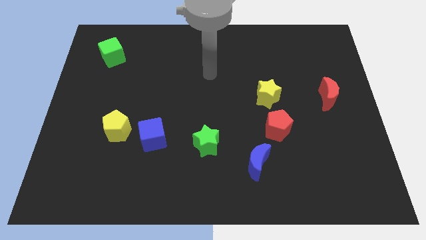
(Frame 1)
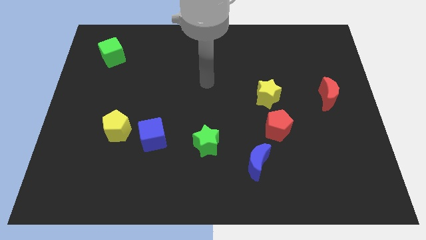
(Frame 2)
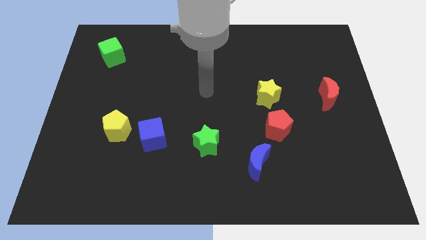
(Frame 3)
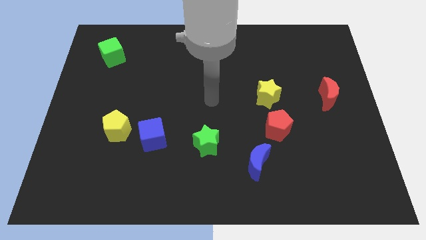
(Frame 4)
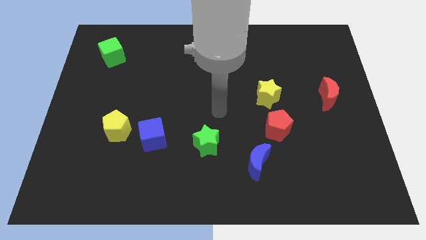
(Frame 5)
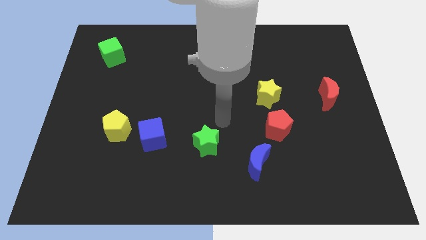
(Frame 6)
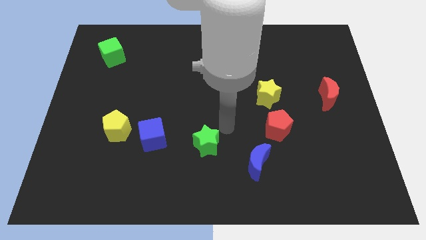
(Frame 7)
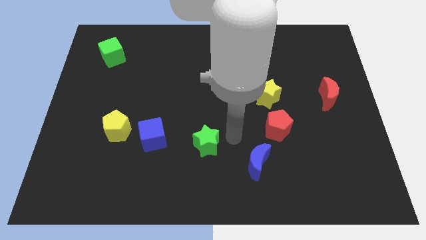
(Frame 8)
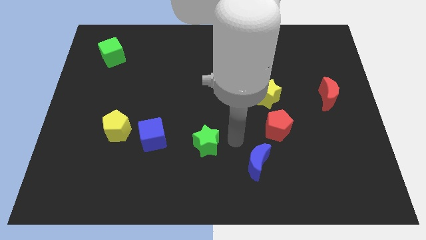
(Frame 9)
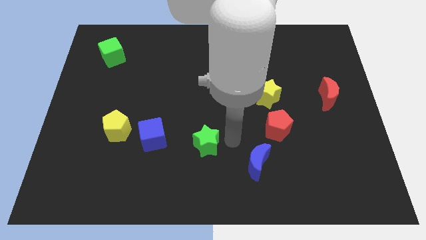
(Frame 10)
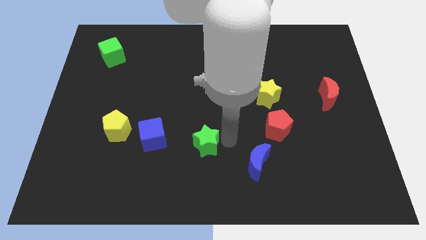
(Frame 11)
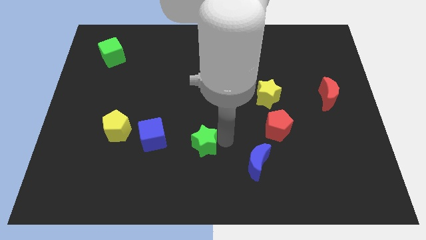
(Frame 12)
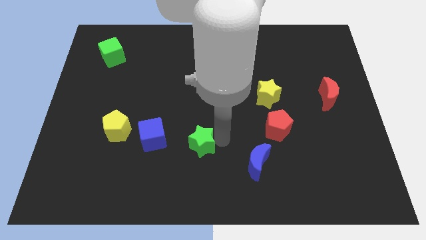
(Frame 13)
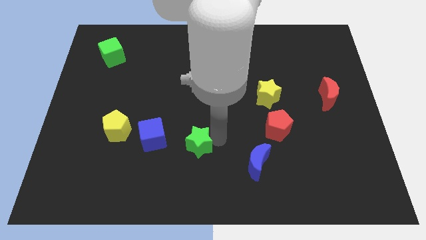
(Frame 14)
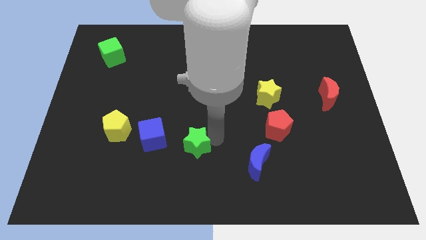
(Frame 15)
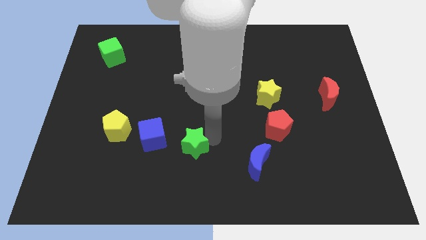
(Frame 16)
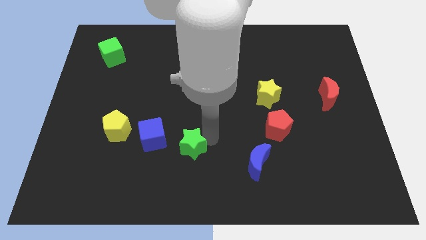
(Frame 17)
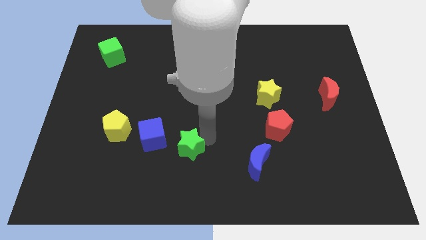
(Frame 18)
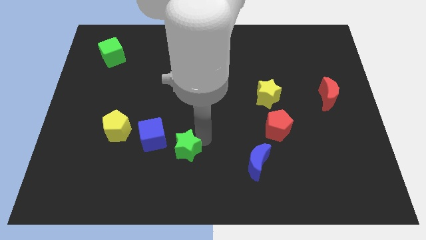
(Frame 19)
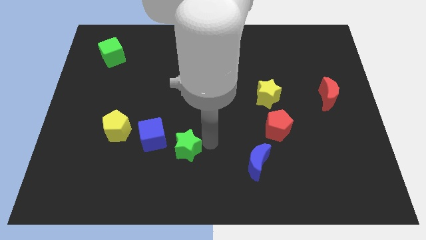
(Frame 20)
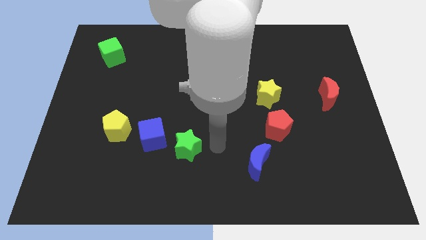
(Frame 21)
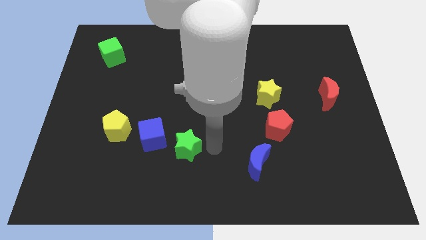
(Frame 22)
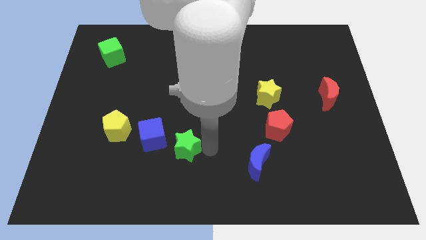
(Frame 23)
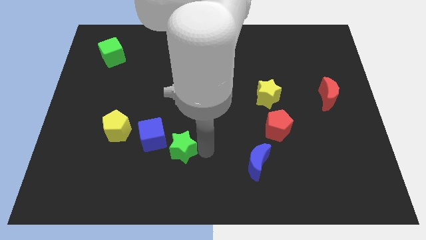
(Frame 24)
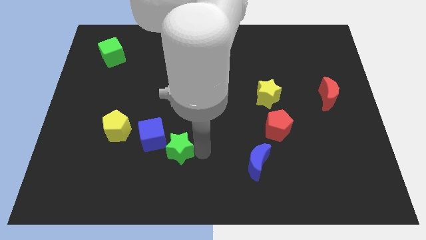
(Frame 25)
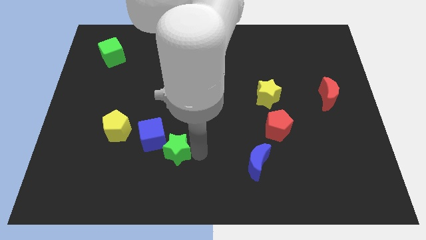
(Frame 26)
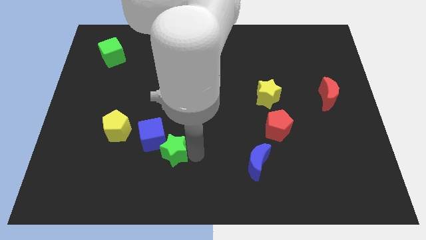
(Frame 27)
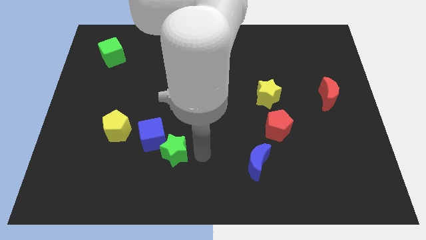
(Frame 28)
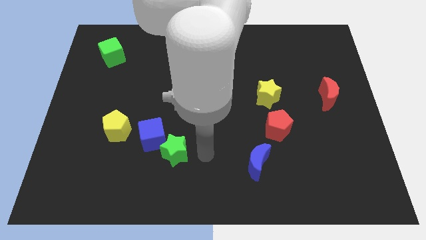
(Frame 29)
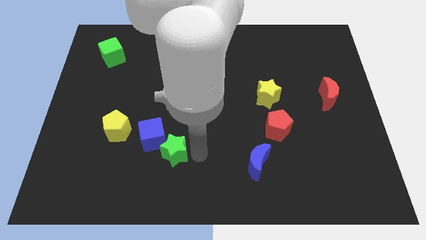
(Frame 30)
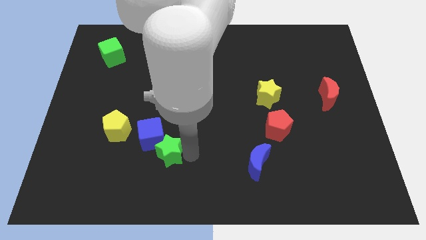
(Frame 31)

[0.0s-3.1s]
slide the green star somewhat left

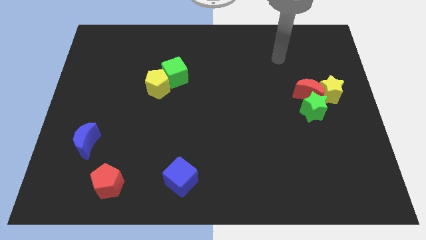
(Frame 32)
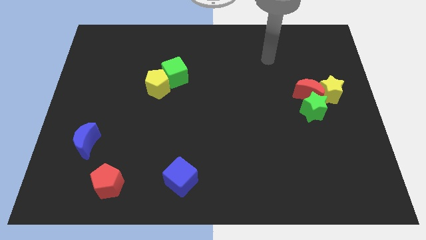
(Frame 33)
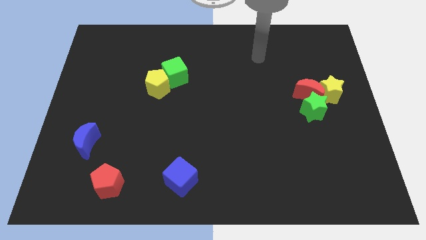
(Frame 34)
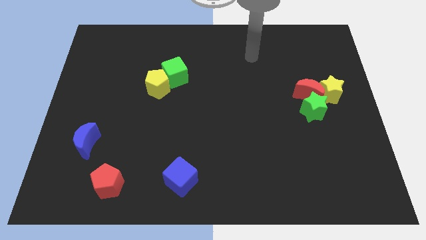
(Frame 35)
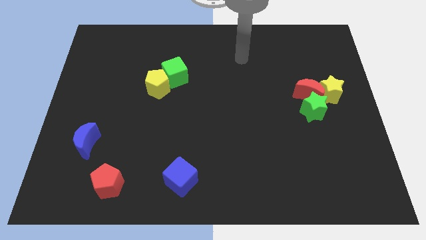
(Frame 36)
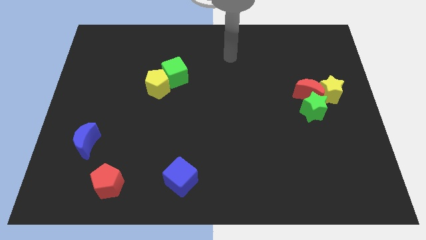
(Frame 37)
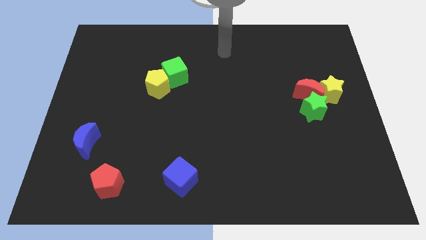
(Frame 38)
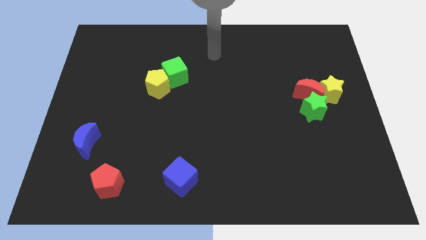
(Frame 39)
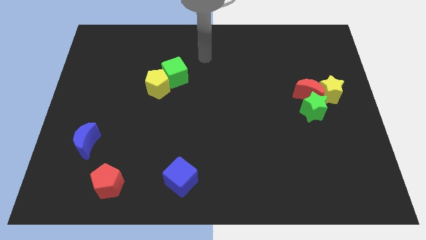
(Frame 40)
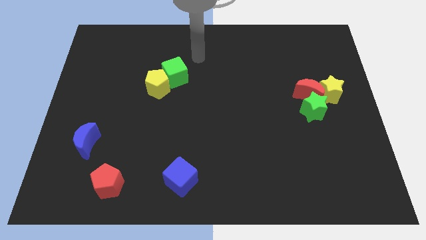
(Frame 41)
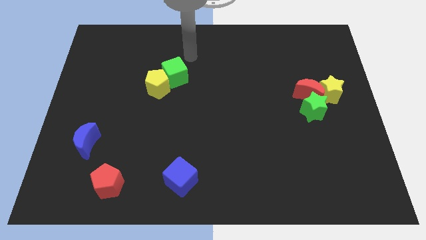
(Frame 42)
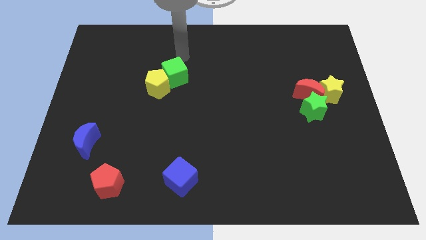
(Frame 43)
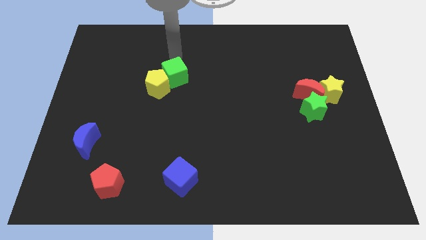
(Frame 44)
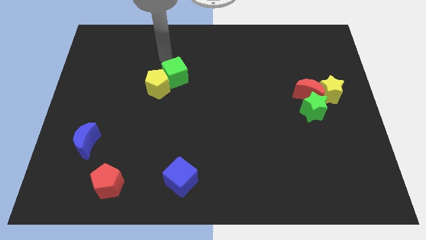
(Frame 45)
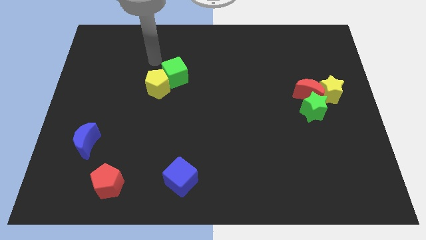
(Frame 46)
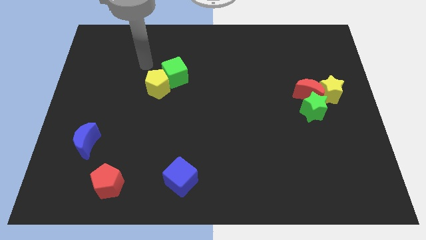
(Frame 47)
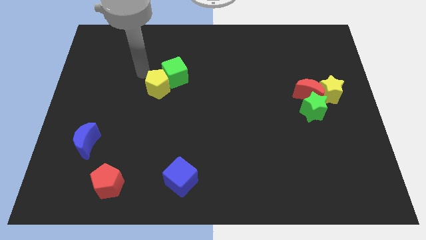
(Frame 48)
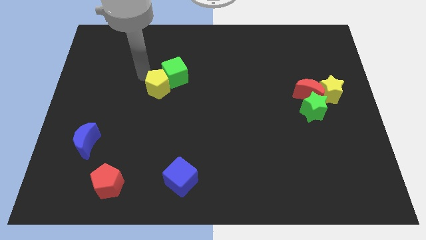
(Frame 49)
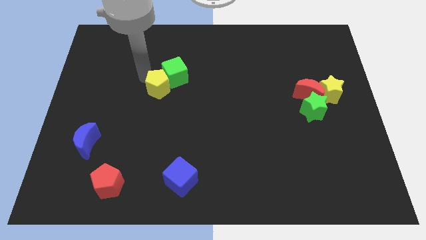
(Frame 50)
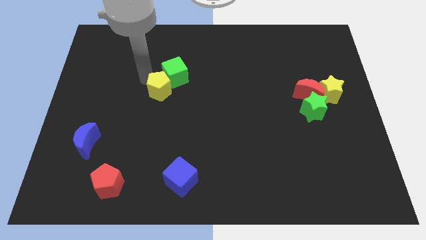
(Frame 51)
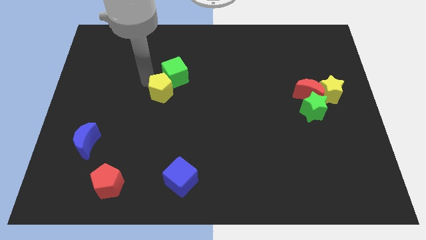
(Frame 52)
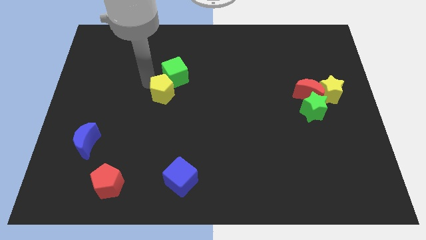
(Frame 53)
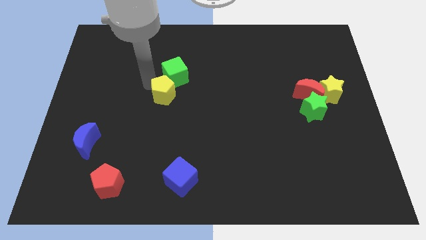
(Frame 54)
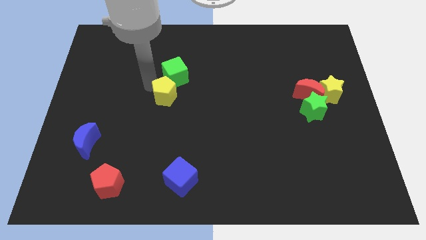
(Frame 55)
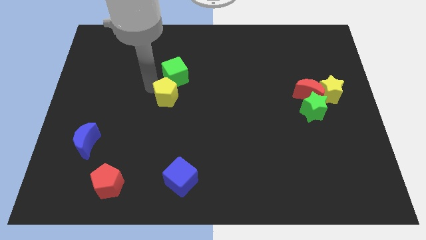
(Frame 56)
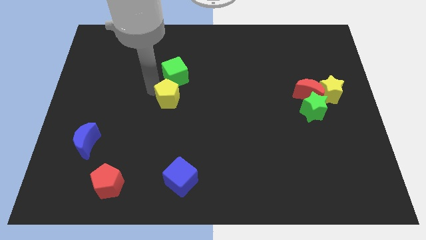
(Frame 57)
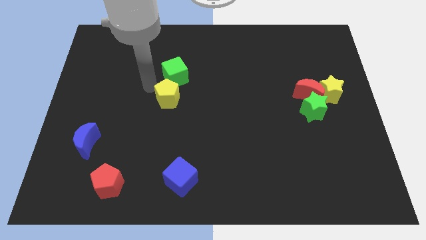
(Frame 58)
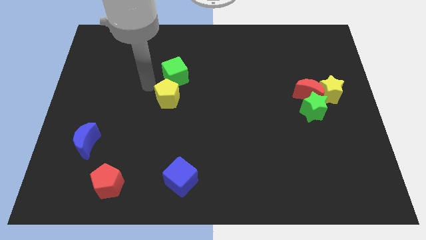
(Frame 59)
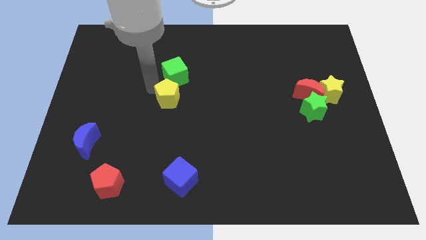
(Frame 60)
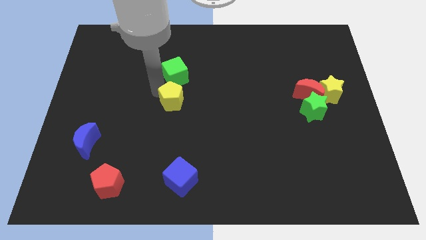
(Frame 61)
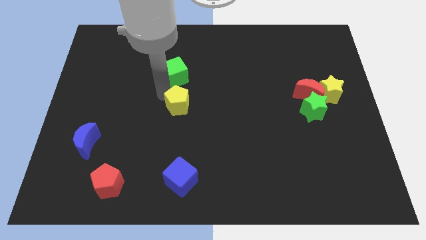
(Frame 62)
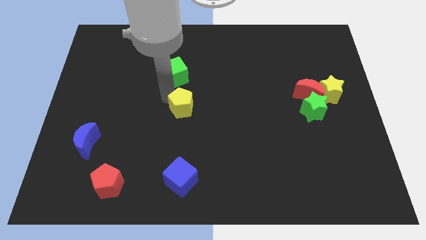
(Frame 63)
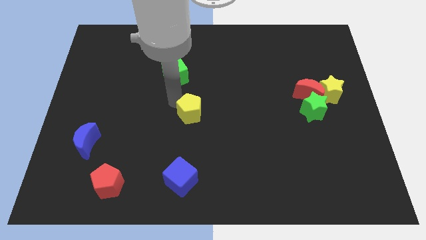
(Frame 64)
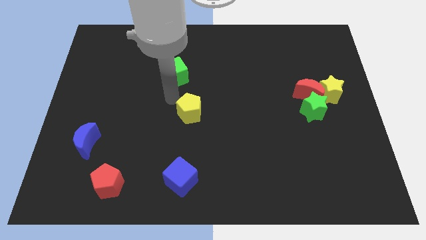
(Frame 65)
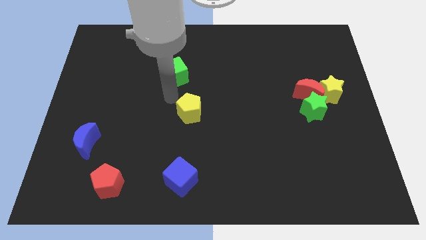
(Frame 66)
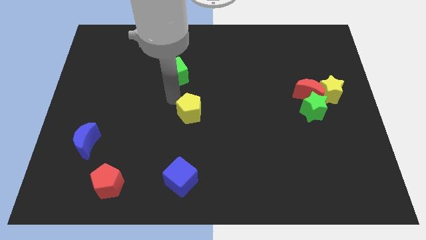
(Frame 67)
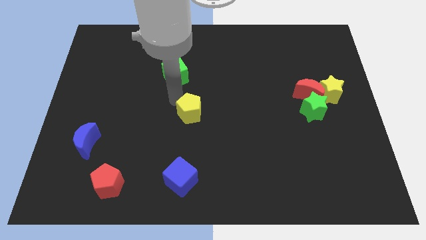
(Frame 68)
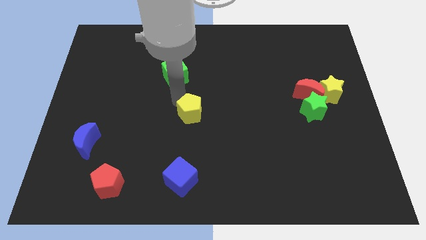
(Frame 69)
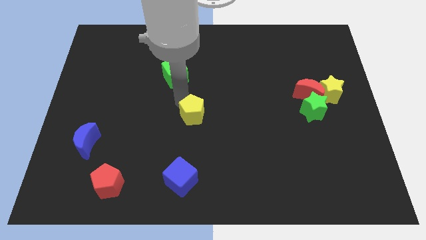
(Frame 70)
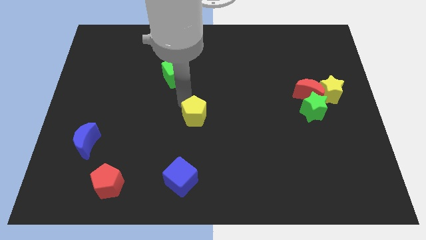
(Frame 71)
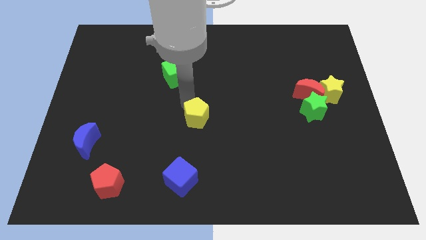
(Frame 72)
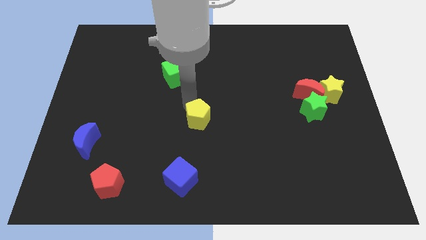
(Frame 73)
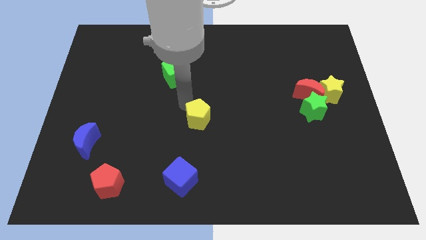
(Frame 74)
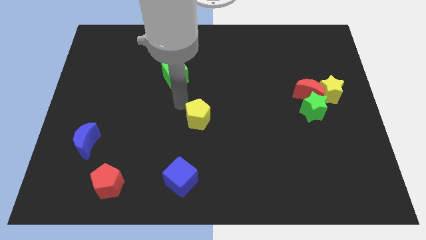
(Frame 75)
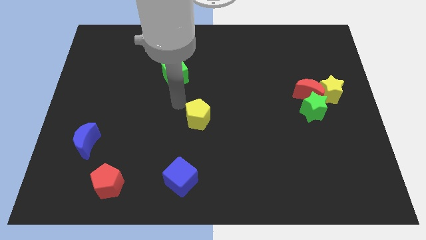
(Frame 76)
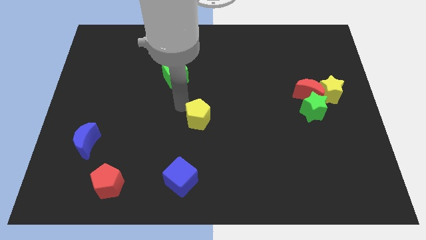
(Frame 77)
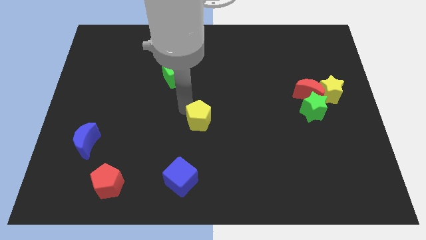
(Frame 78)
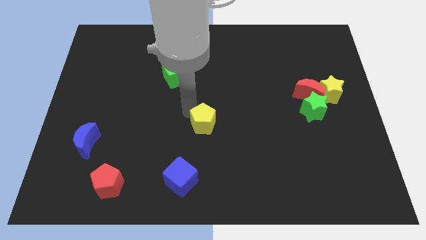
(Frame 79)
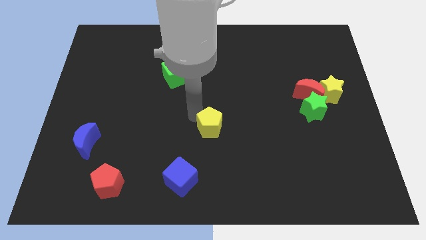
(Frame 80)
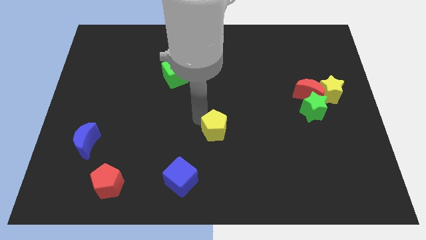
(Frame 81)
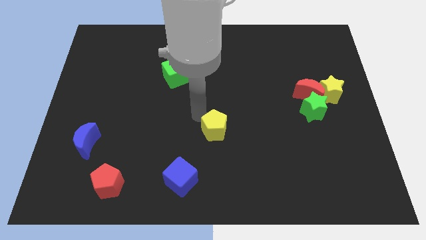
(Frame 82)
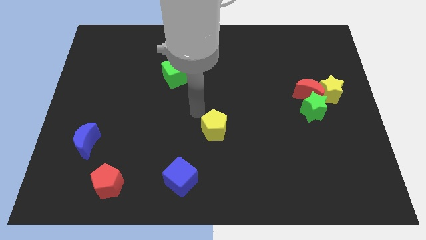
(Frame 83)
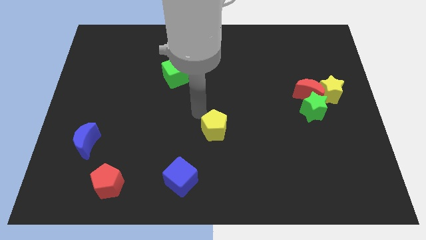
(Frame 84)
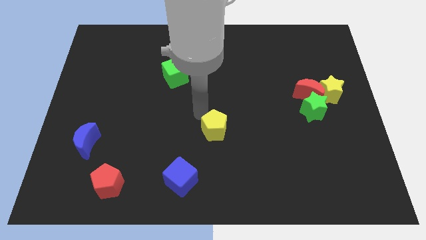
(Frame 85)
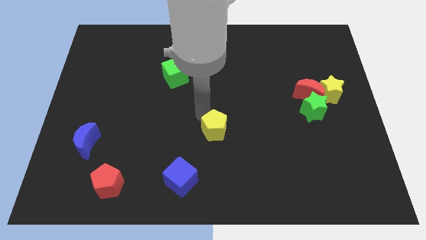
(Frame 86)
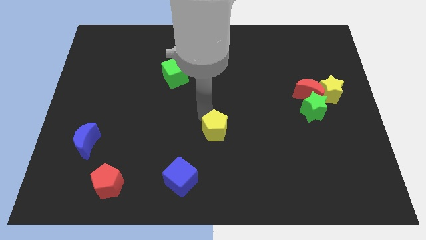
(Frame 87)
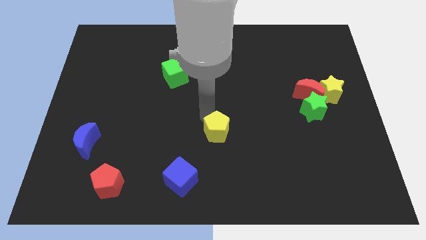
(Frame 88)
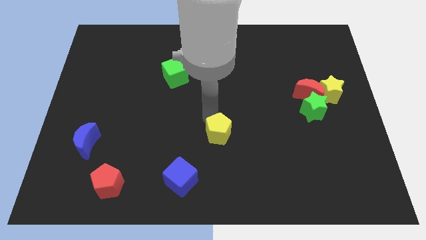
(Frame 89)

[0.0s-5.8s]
move the yellow pentagon downwards and to the right
